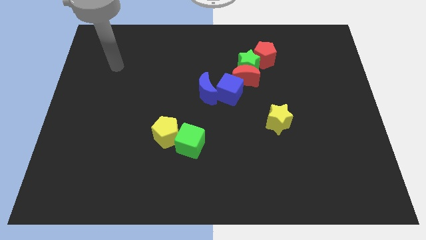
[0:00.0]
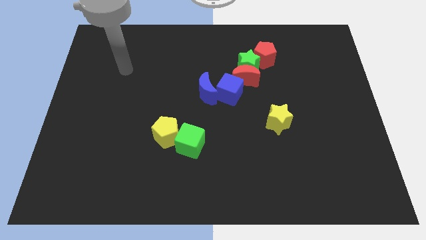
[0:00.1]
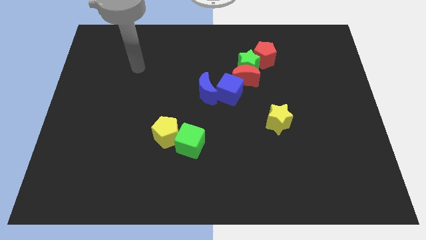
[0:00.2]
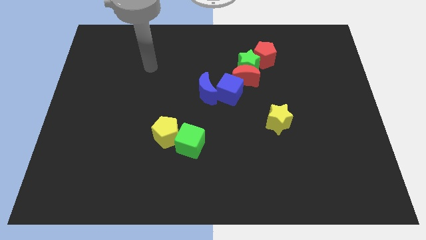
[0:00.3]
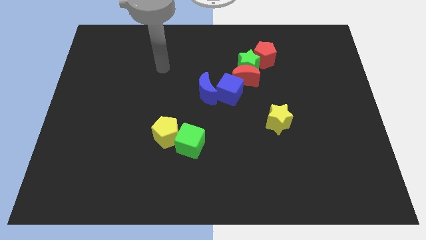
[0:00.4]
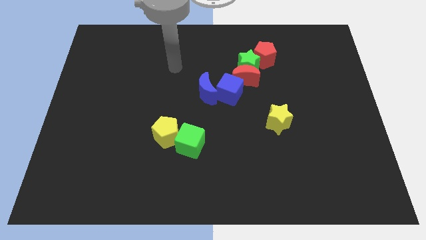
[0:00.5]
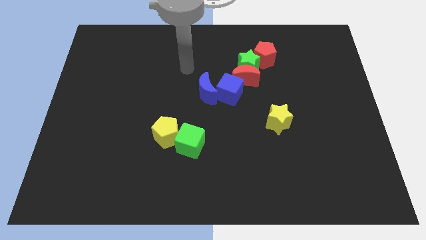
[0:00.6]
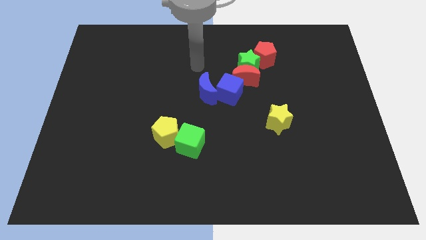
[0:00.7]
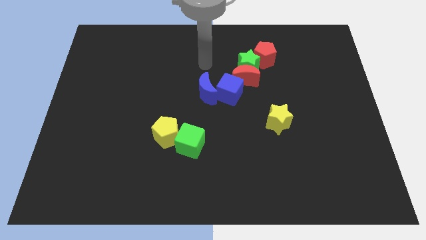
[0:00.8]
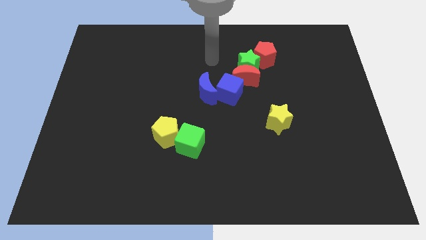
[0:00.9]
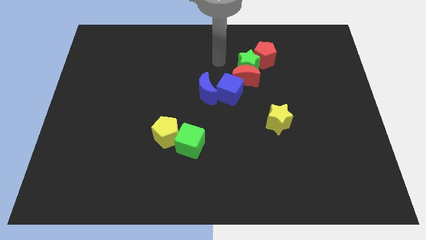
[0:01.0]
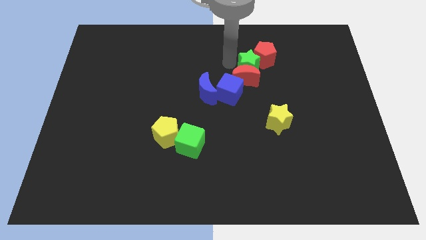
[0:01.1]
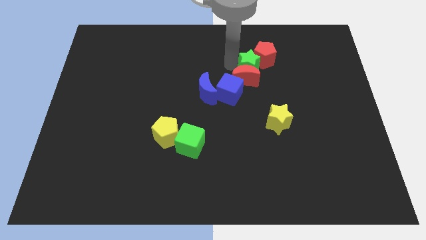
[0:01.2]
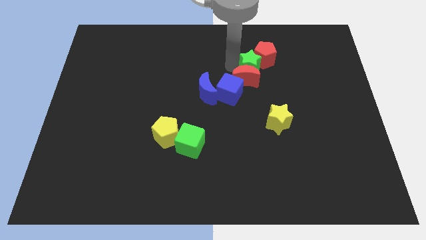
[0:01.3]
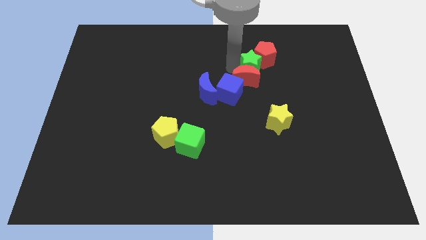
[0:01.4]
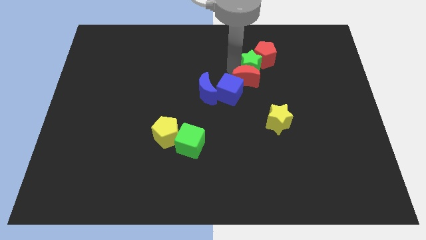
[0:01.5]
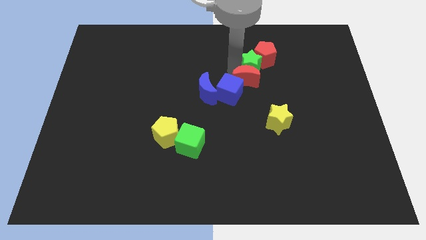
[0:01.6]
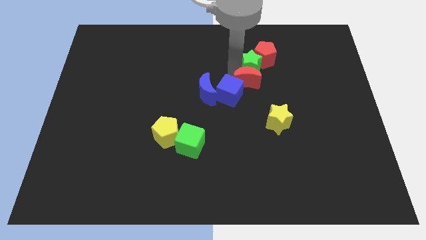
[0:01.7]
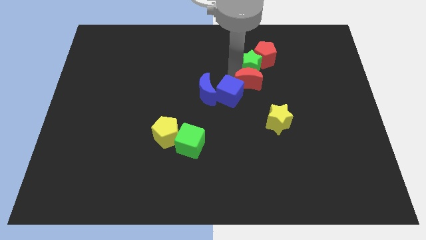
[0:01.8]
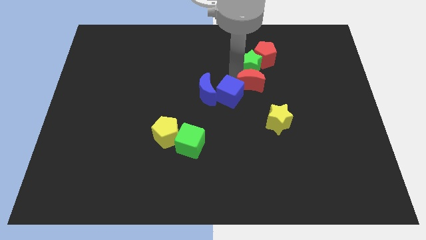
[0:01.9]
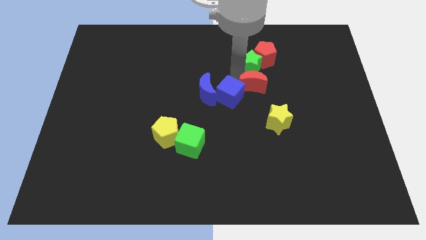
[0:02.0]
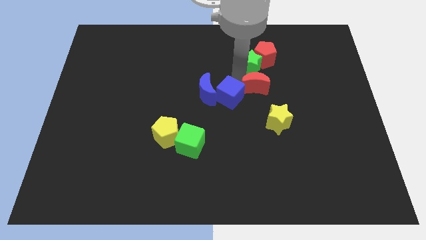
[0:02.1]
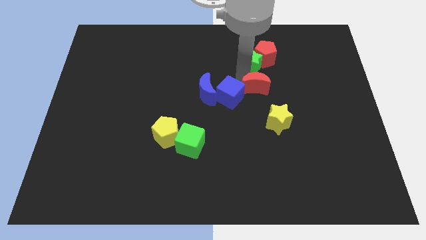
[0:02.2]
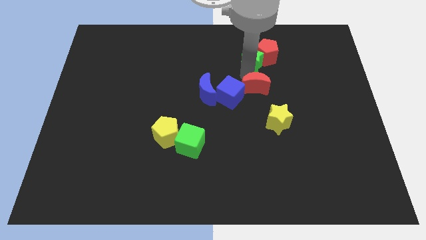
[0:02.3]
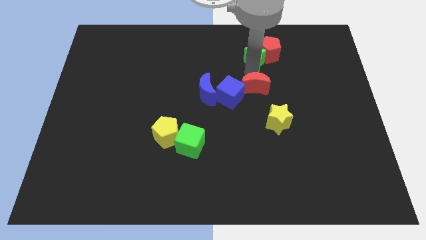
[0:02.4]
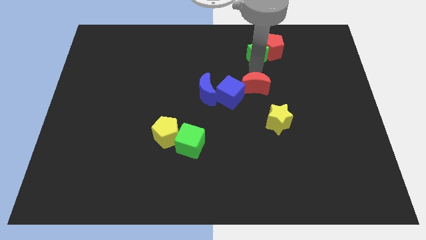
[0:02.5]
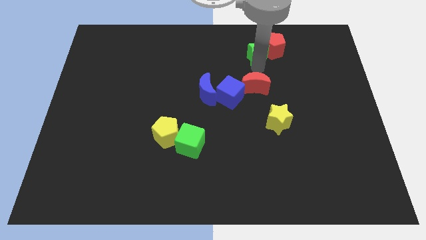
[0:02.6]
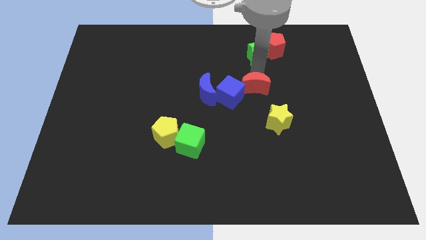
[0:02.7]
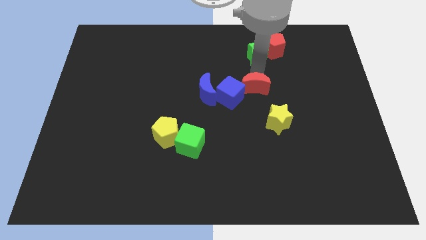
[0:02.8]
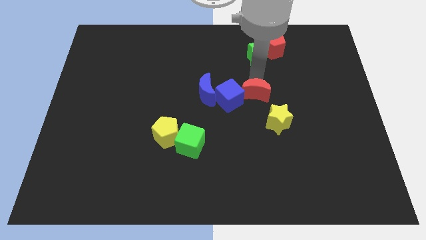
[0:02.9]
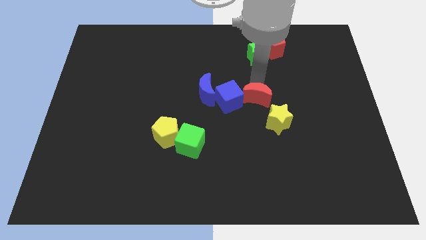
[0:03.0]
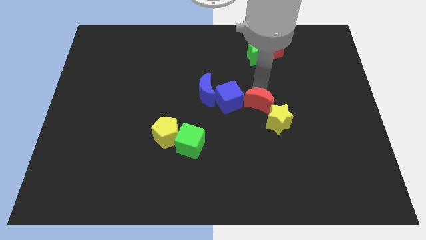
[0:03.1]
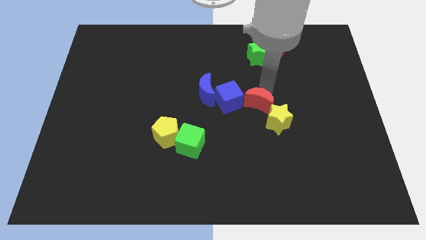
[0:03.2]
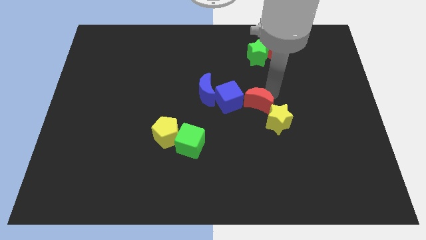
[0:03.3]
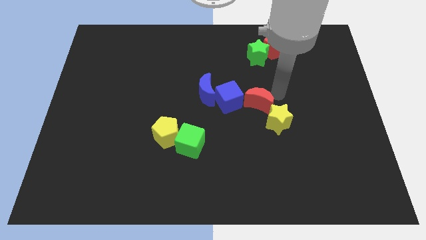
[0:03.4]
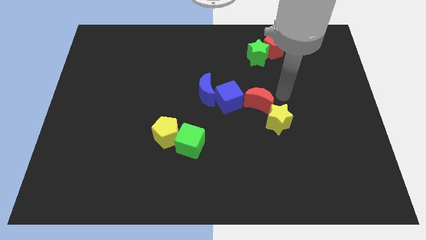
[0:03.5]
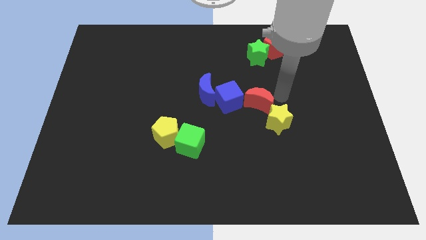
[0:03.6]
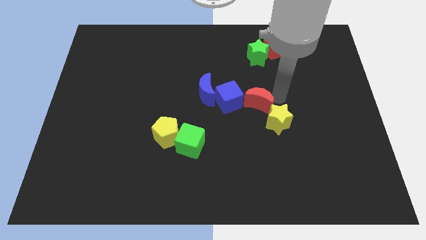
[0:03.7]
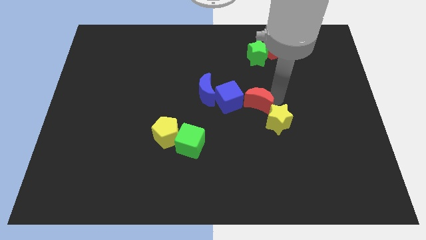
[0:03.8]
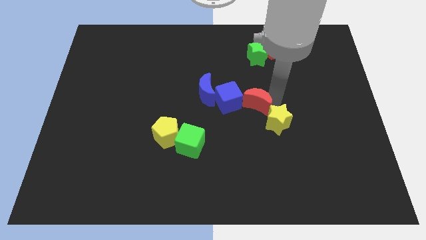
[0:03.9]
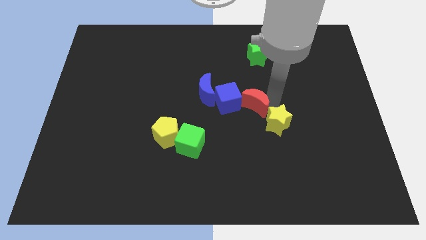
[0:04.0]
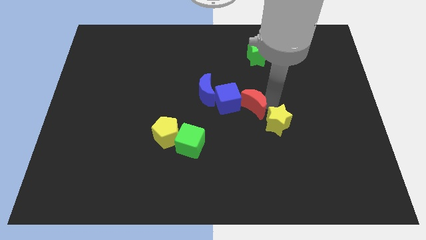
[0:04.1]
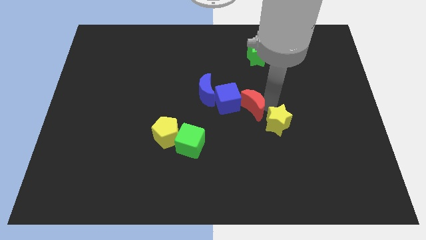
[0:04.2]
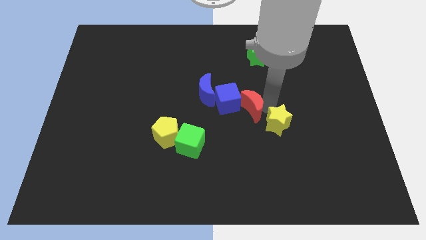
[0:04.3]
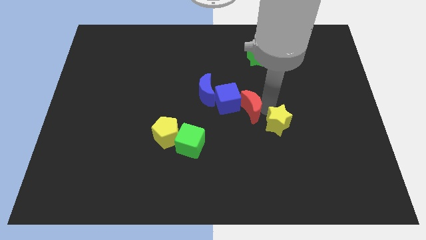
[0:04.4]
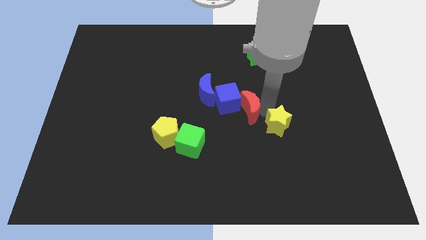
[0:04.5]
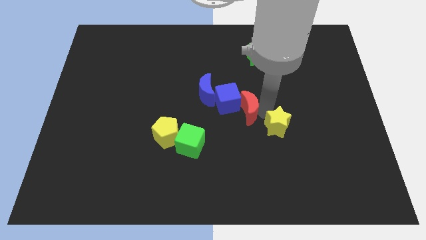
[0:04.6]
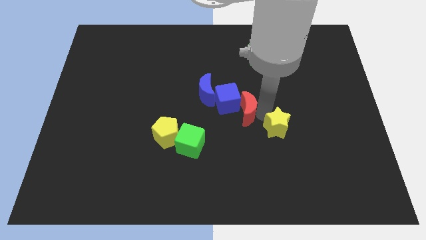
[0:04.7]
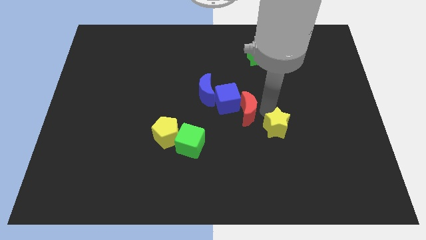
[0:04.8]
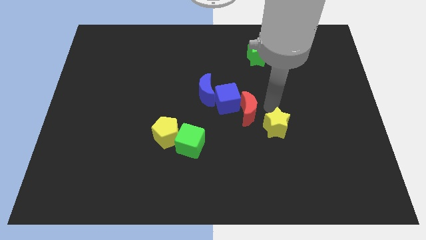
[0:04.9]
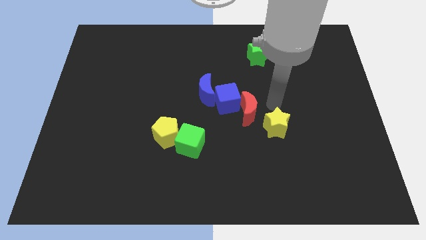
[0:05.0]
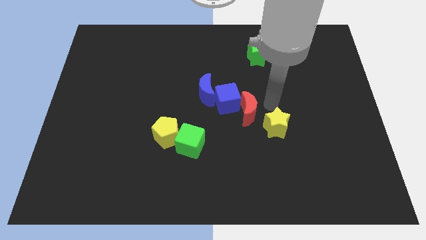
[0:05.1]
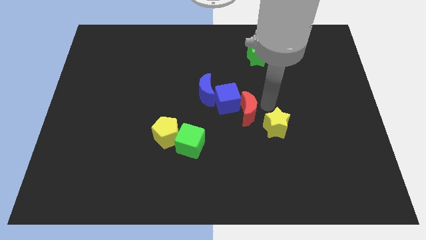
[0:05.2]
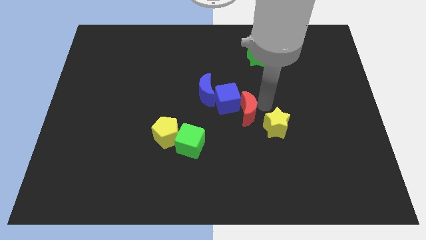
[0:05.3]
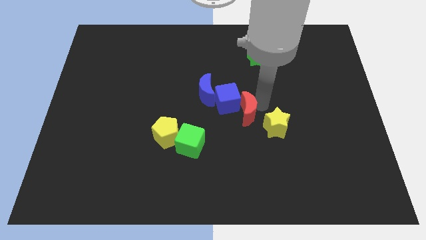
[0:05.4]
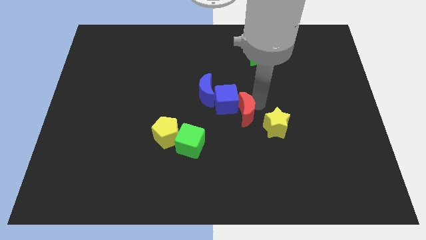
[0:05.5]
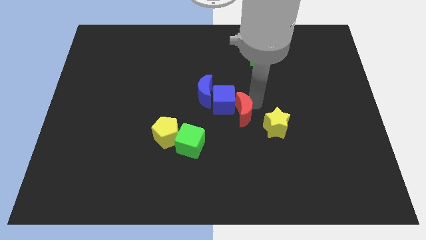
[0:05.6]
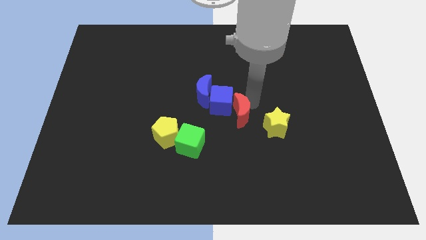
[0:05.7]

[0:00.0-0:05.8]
push the red moon somewhat downwards and then to the left

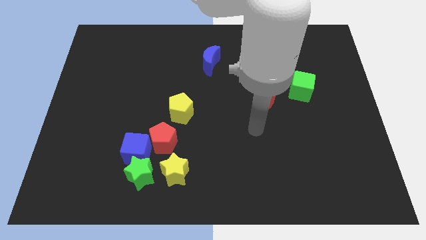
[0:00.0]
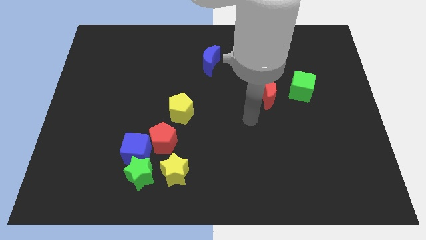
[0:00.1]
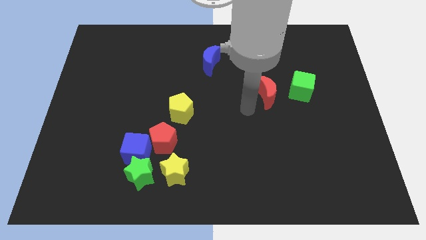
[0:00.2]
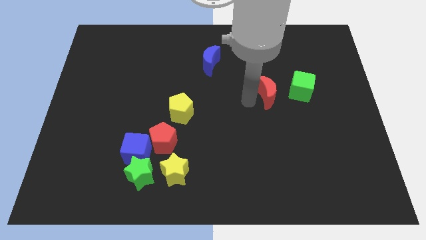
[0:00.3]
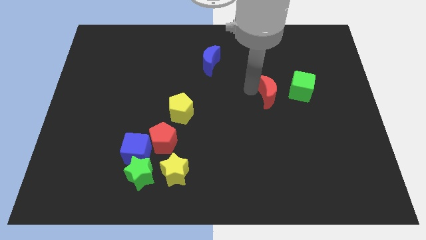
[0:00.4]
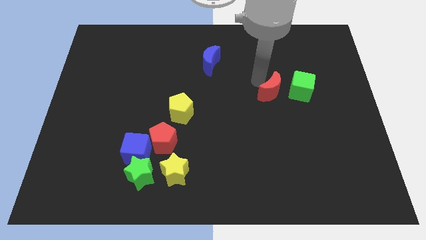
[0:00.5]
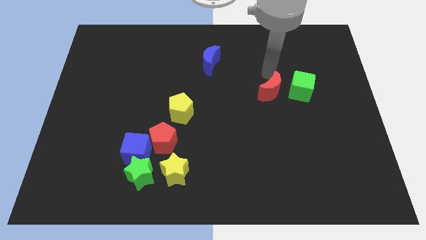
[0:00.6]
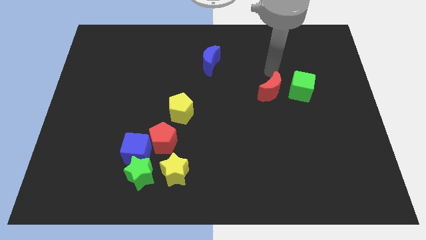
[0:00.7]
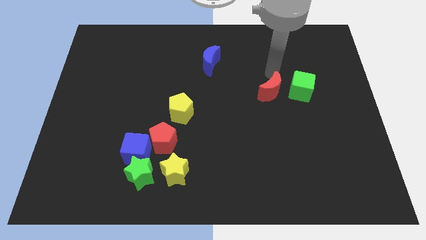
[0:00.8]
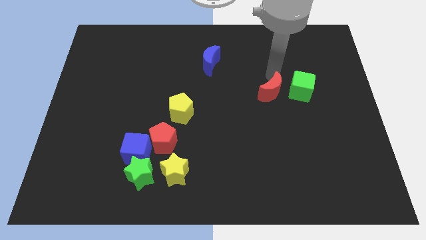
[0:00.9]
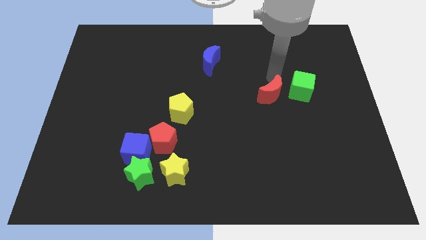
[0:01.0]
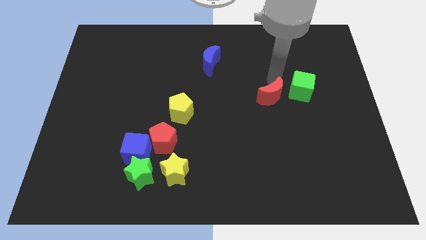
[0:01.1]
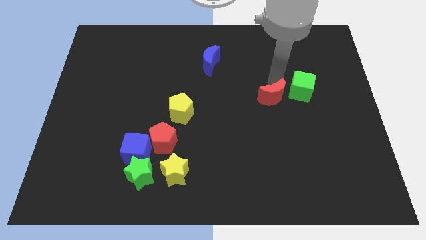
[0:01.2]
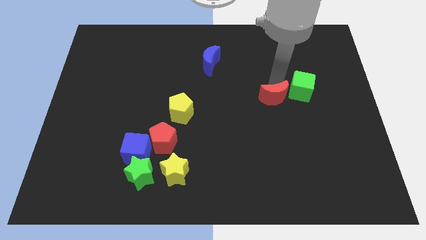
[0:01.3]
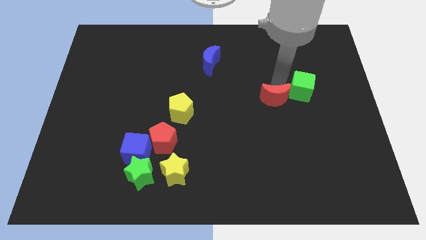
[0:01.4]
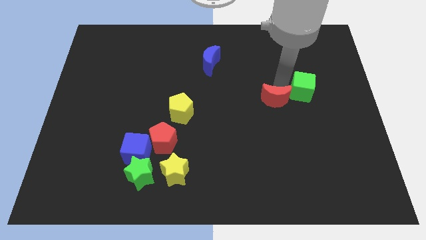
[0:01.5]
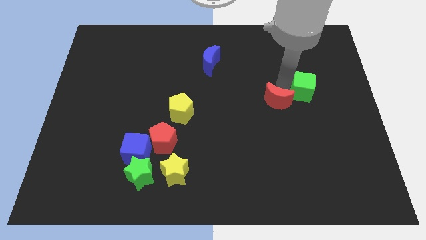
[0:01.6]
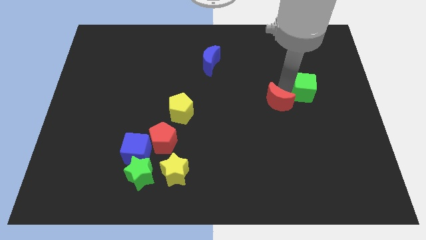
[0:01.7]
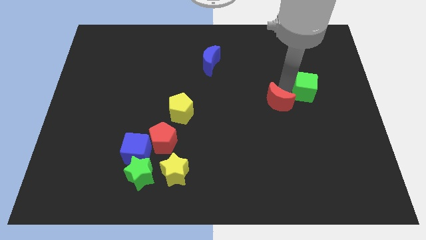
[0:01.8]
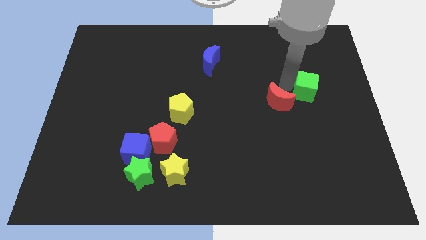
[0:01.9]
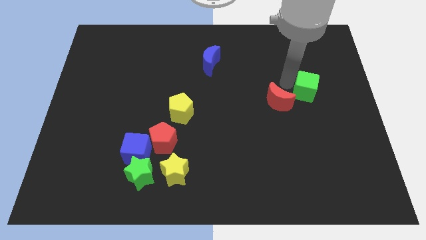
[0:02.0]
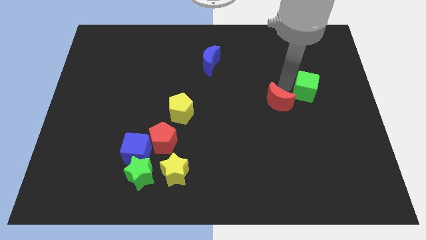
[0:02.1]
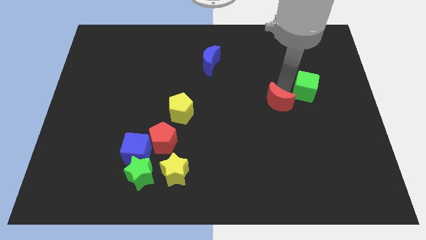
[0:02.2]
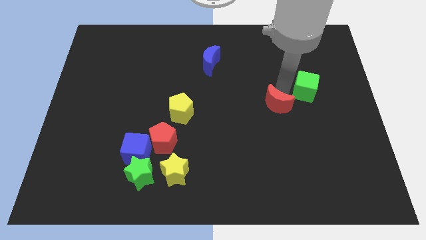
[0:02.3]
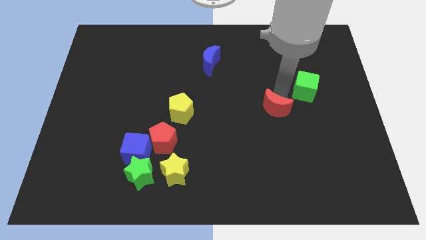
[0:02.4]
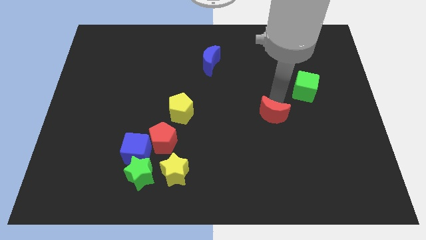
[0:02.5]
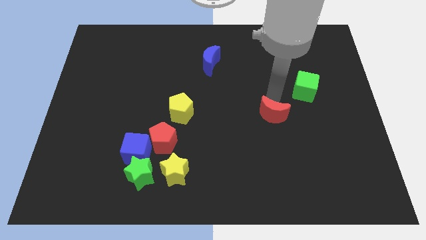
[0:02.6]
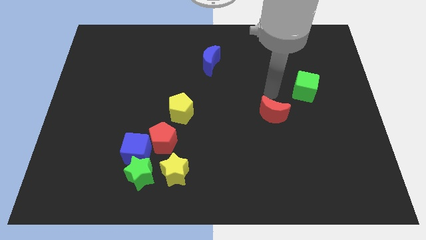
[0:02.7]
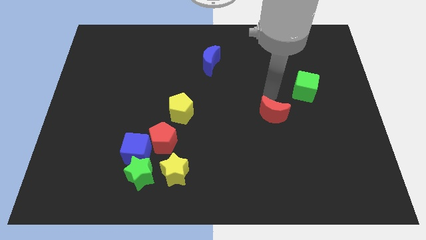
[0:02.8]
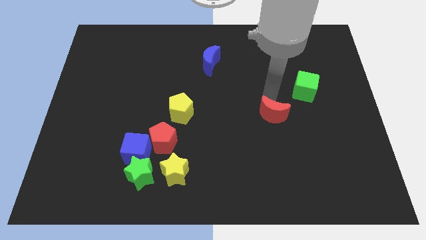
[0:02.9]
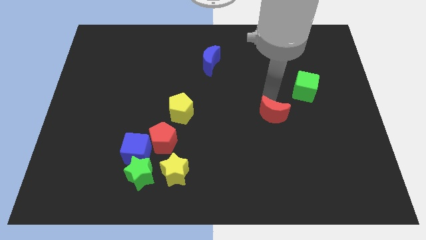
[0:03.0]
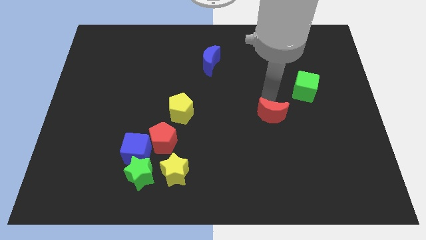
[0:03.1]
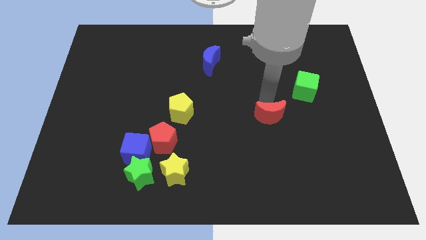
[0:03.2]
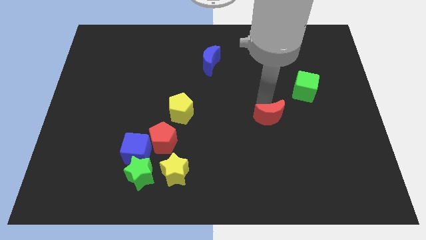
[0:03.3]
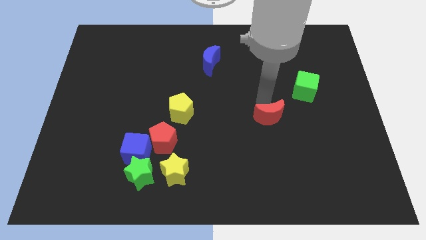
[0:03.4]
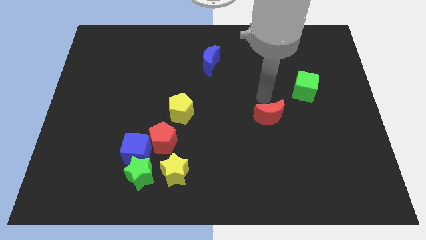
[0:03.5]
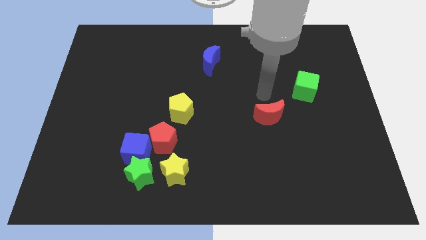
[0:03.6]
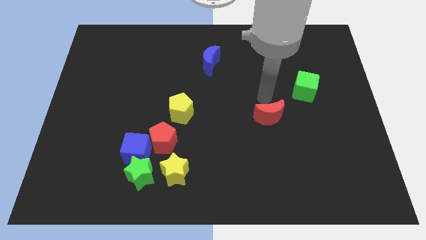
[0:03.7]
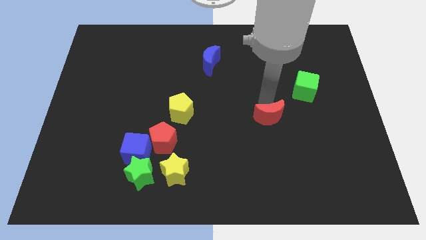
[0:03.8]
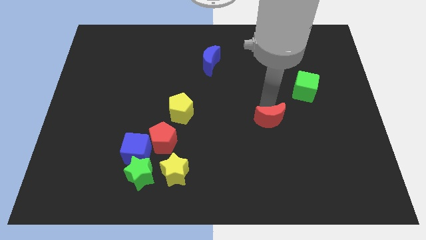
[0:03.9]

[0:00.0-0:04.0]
slide the red moon slightly down
